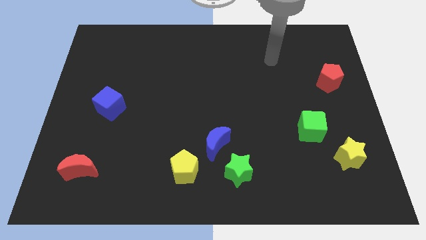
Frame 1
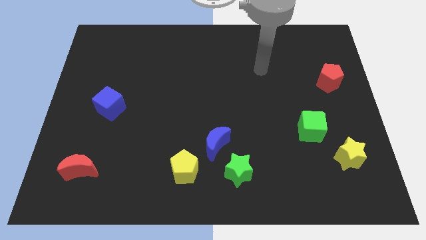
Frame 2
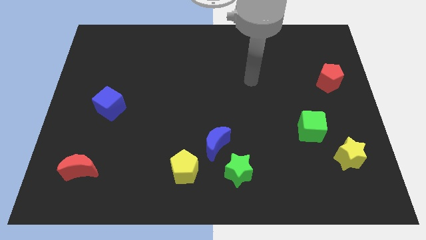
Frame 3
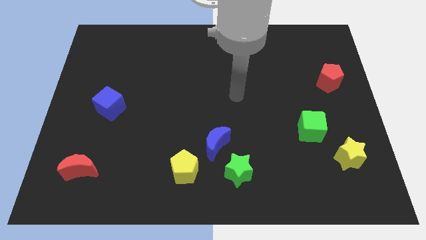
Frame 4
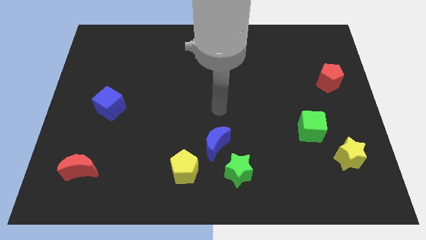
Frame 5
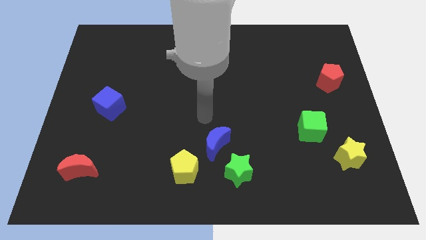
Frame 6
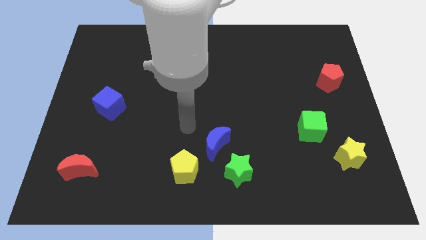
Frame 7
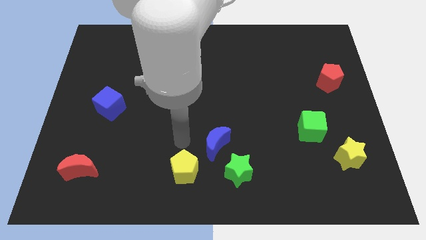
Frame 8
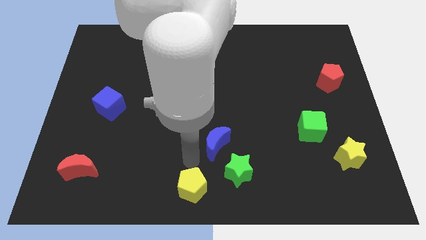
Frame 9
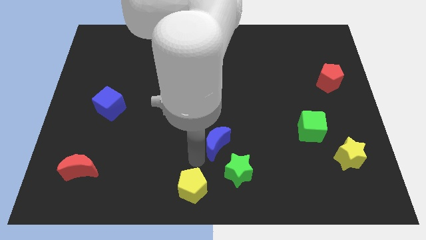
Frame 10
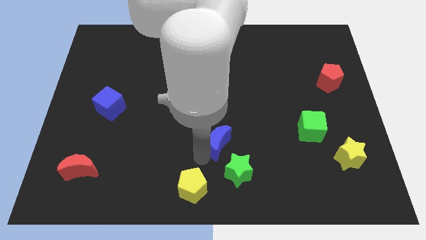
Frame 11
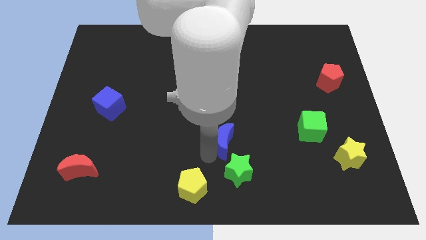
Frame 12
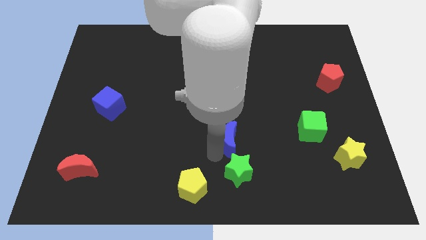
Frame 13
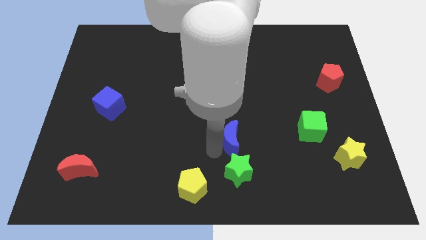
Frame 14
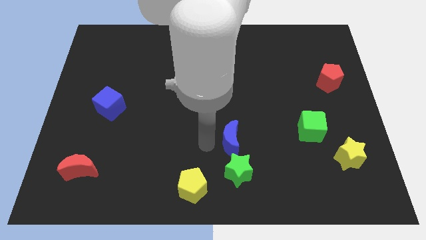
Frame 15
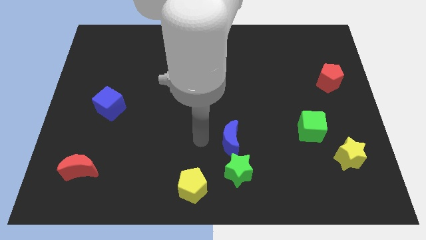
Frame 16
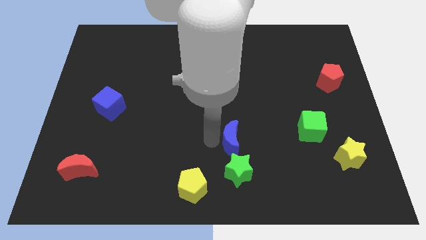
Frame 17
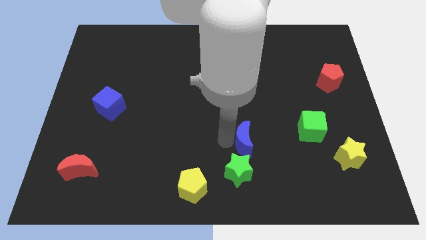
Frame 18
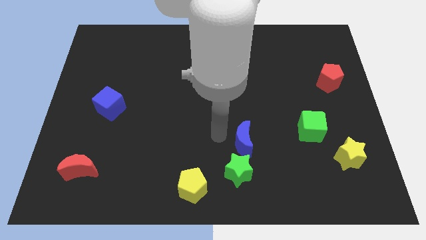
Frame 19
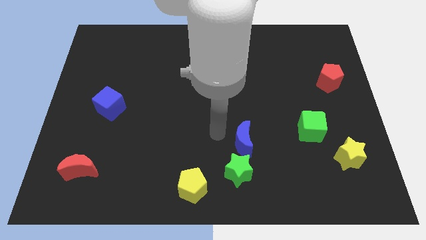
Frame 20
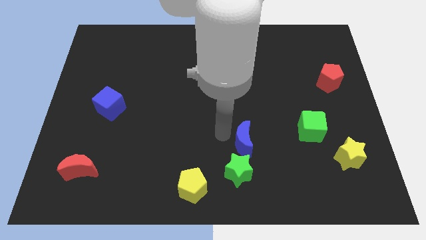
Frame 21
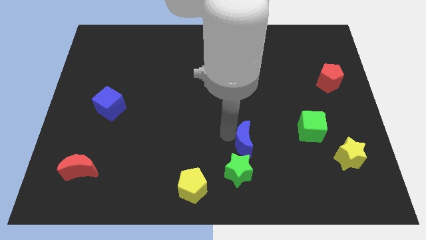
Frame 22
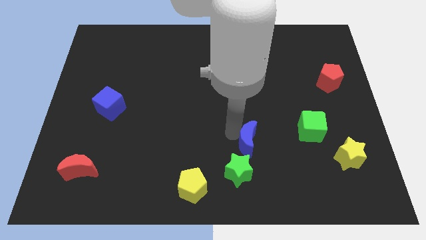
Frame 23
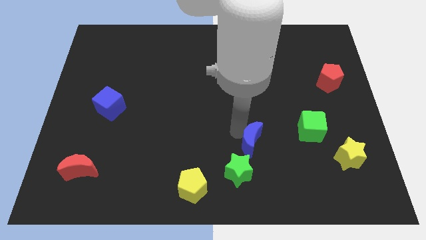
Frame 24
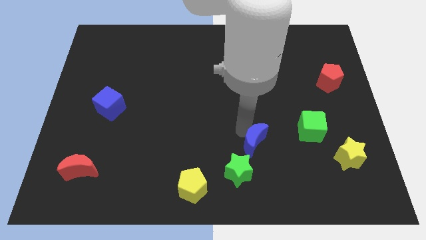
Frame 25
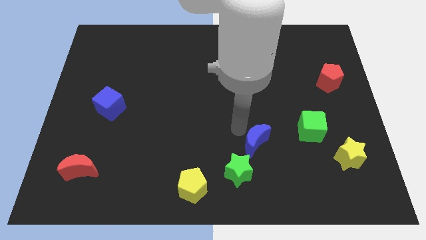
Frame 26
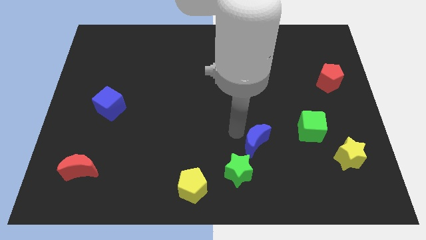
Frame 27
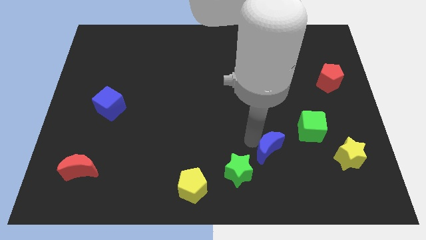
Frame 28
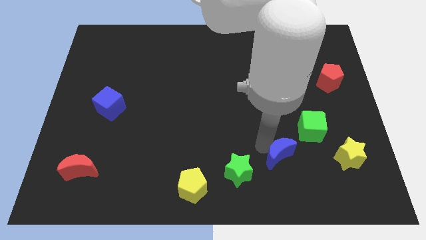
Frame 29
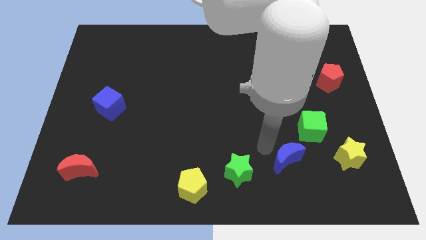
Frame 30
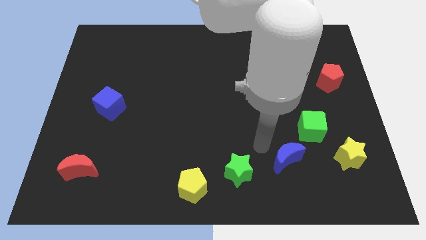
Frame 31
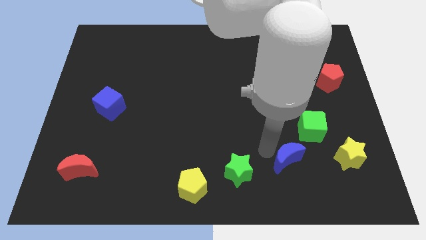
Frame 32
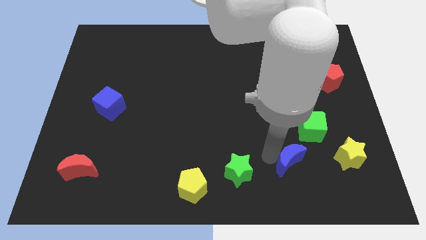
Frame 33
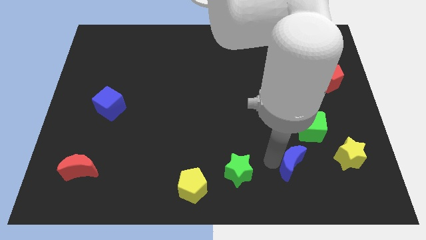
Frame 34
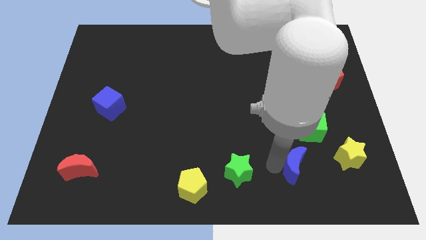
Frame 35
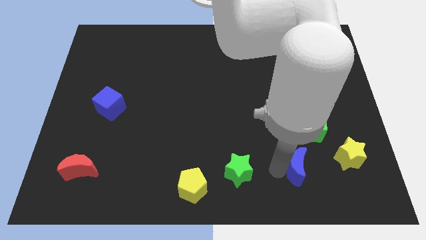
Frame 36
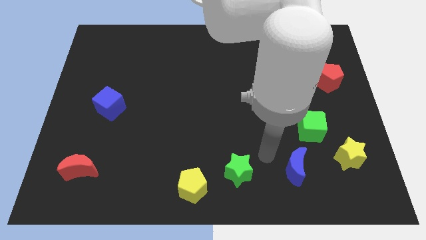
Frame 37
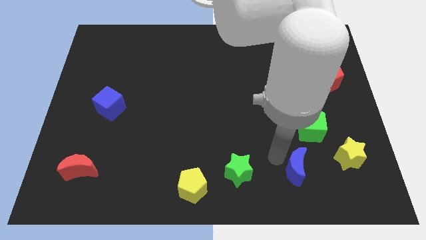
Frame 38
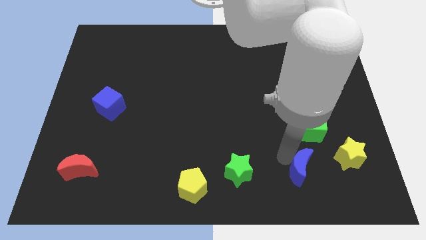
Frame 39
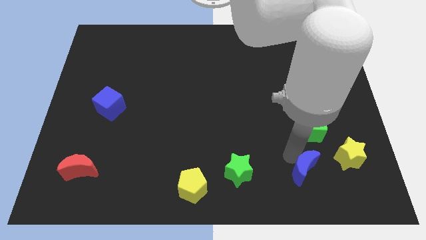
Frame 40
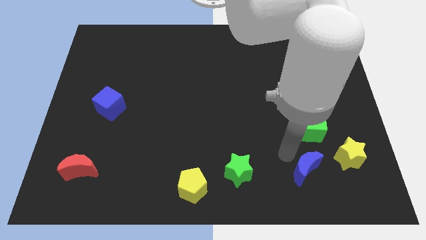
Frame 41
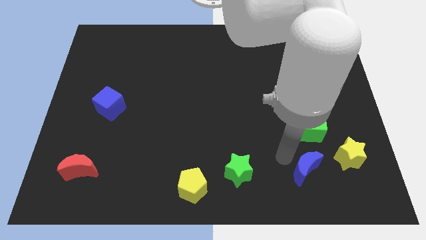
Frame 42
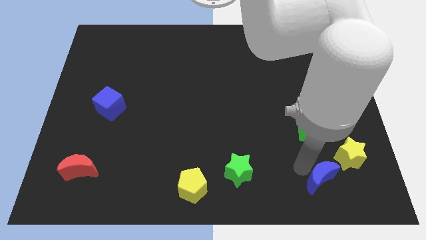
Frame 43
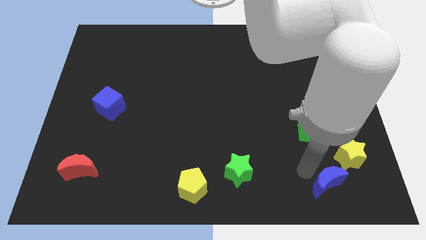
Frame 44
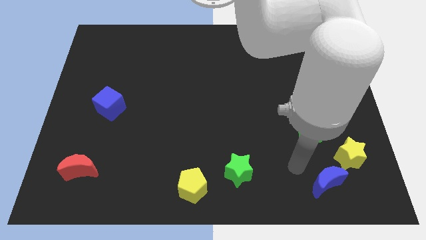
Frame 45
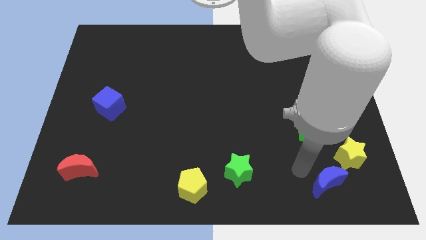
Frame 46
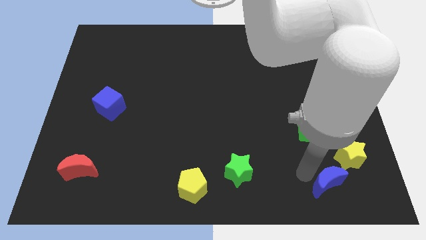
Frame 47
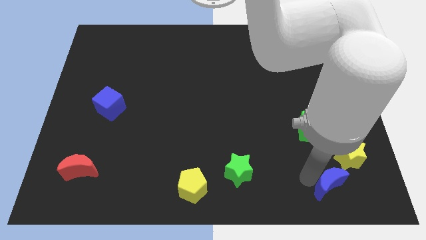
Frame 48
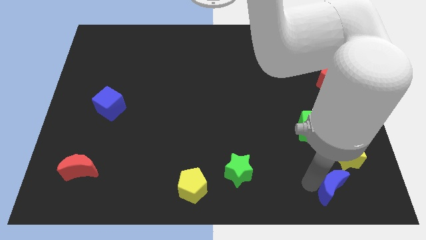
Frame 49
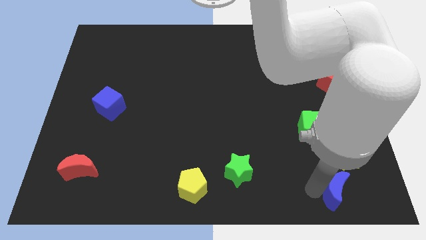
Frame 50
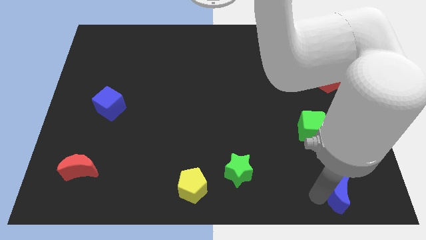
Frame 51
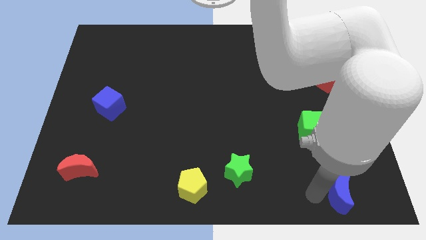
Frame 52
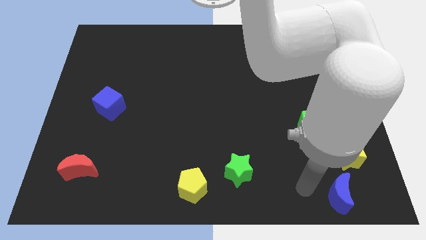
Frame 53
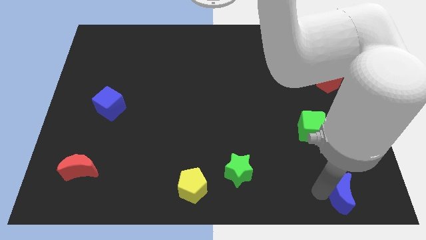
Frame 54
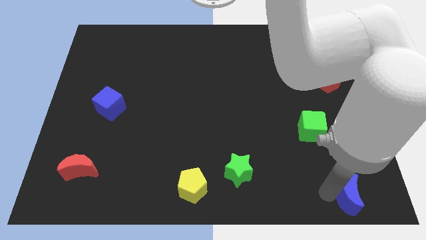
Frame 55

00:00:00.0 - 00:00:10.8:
push the blue moon to the lower right corner

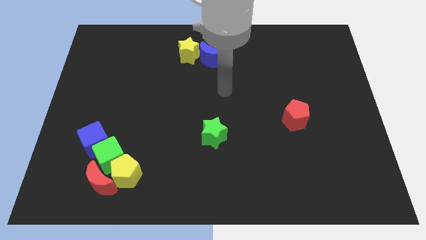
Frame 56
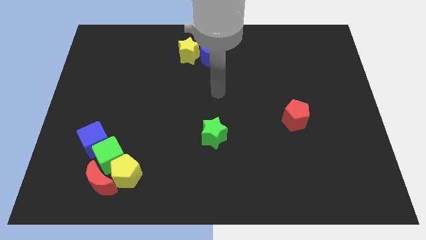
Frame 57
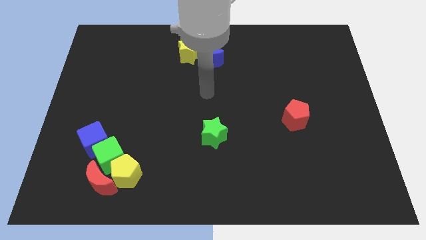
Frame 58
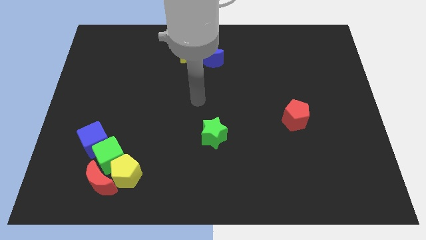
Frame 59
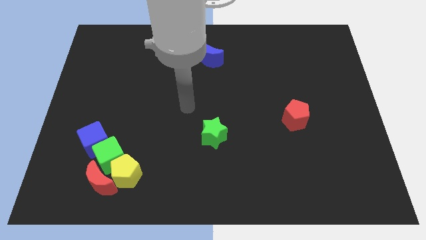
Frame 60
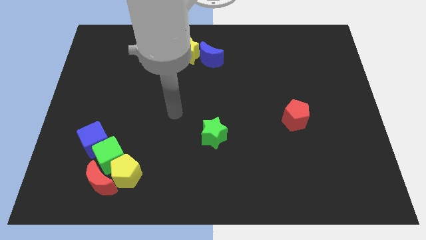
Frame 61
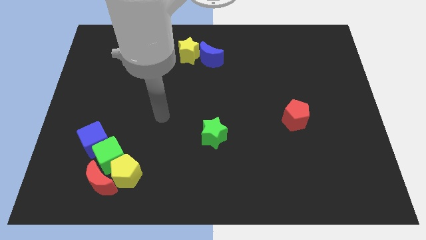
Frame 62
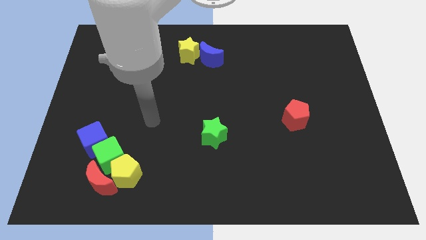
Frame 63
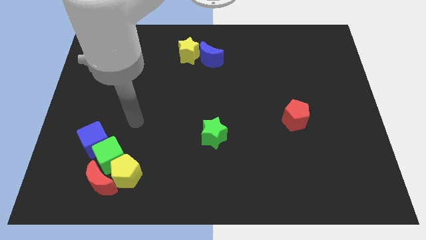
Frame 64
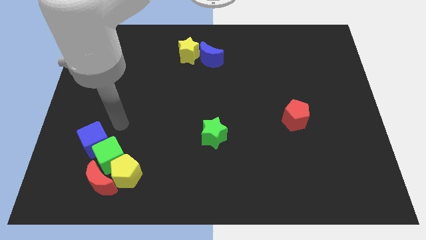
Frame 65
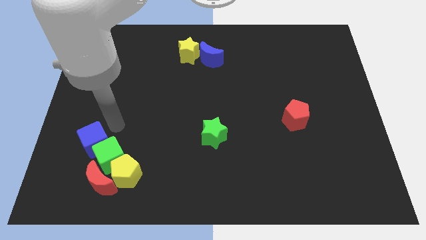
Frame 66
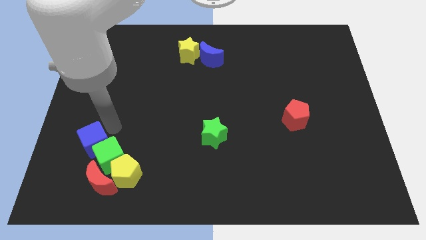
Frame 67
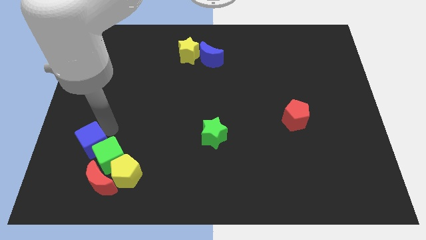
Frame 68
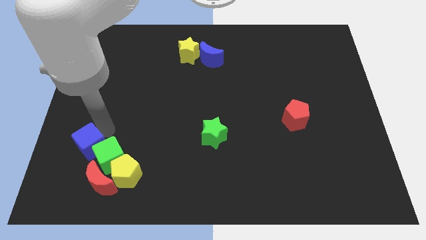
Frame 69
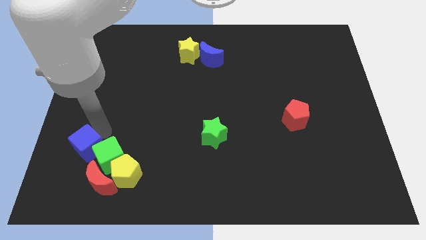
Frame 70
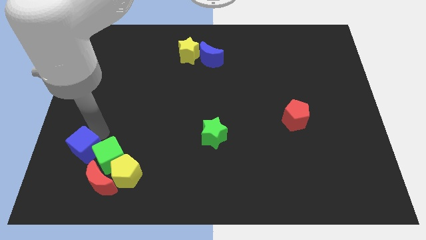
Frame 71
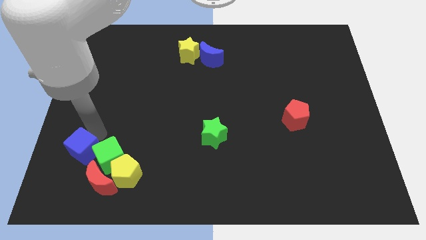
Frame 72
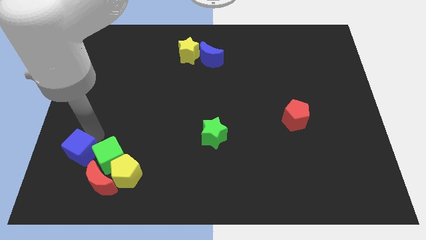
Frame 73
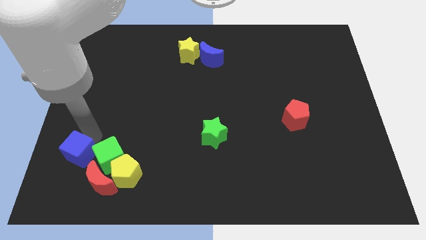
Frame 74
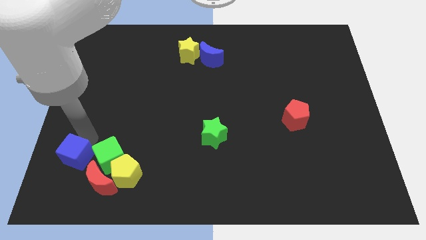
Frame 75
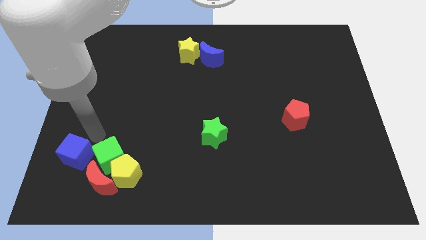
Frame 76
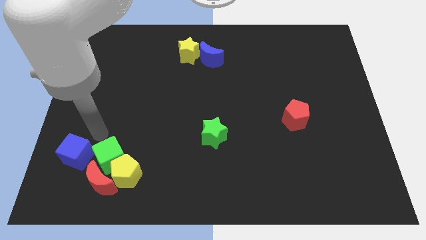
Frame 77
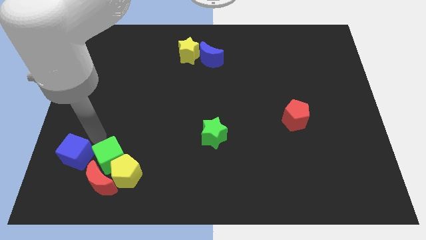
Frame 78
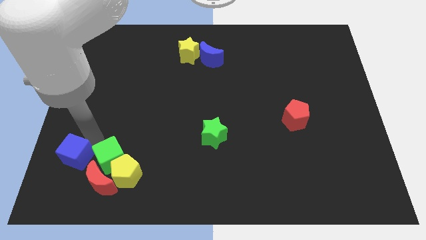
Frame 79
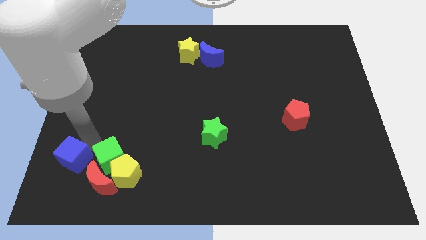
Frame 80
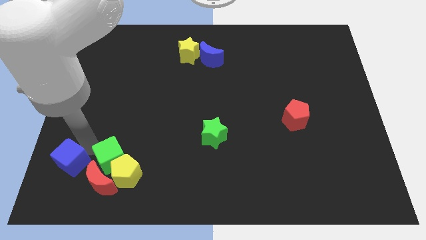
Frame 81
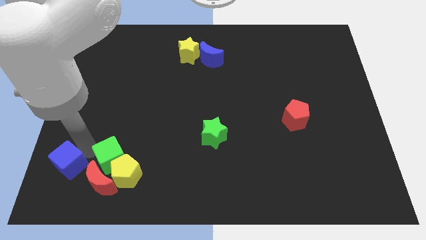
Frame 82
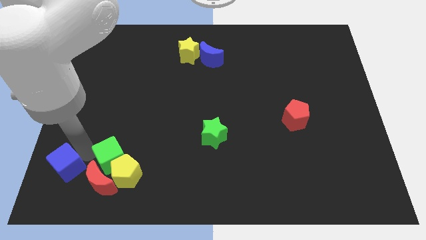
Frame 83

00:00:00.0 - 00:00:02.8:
move the blue cube to the bottom left of the board
